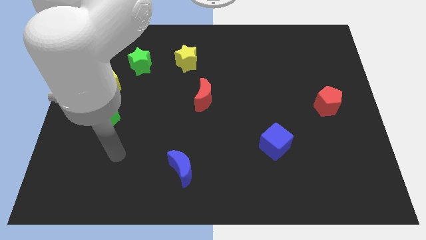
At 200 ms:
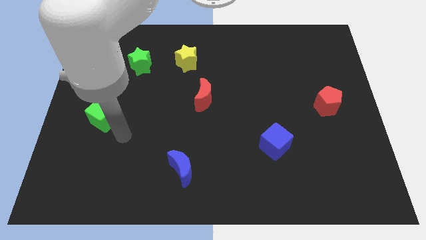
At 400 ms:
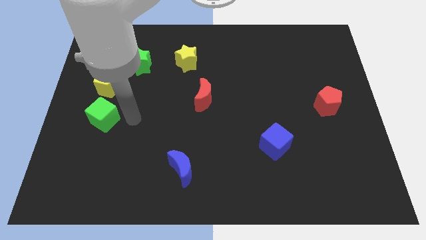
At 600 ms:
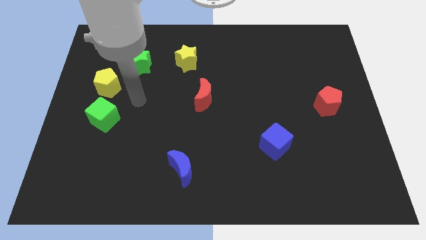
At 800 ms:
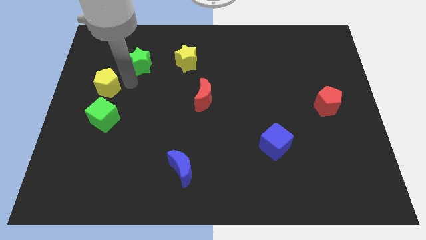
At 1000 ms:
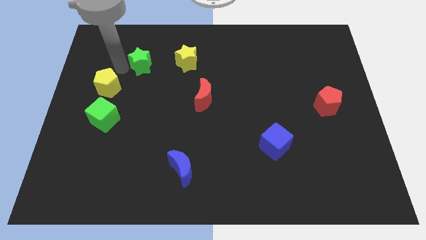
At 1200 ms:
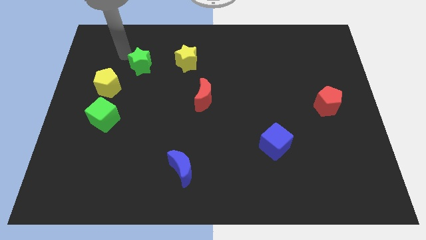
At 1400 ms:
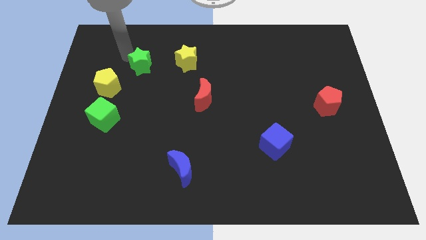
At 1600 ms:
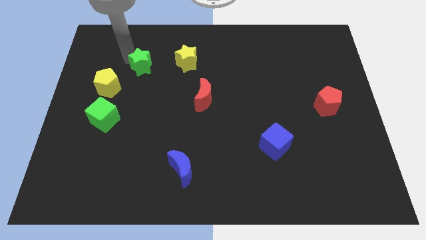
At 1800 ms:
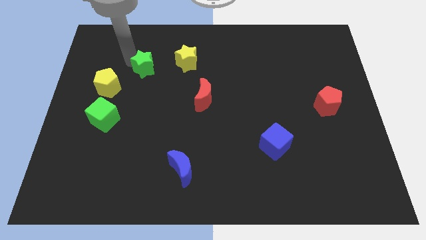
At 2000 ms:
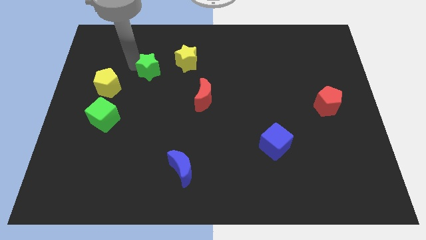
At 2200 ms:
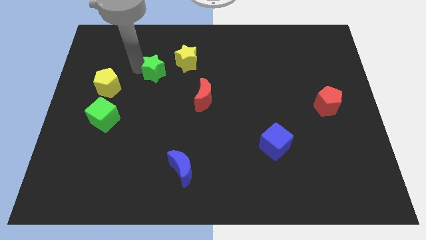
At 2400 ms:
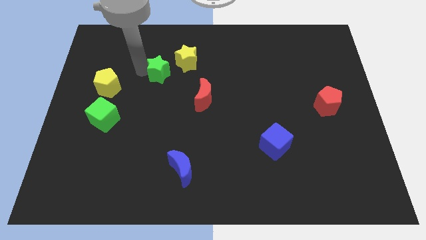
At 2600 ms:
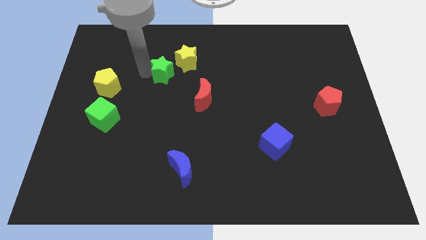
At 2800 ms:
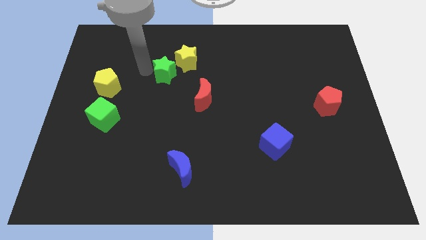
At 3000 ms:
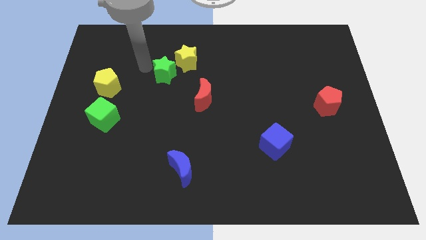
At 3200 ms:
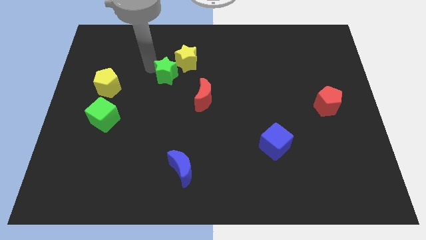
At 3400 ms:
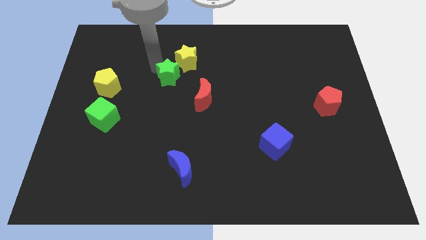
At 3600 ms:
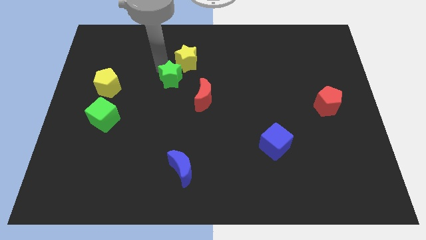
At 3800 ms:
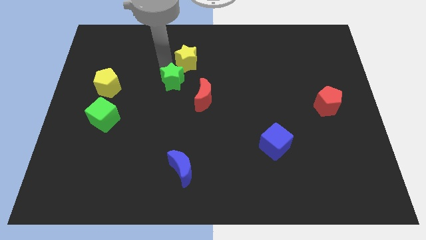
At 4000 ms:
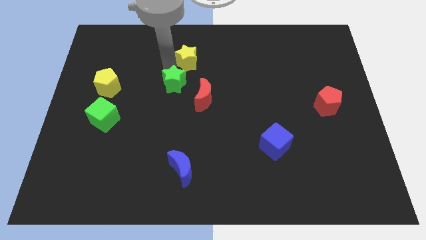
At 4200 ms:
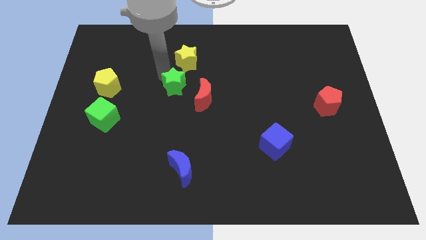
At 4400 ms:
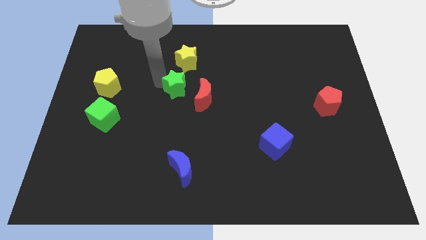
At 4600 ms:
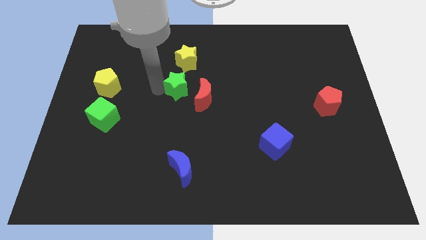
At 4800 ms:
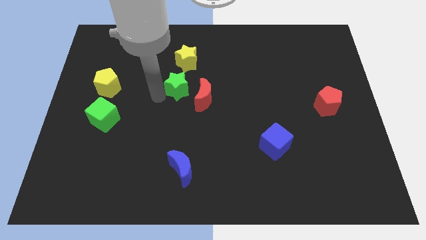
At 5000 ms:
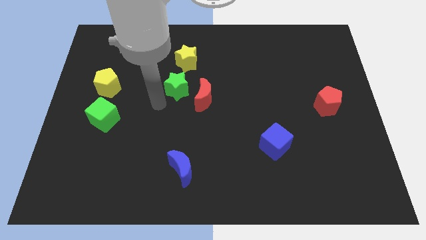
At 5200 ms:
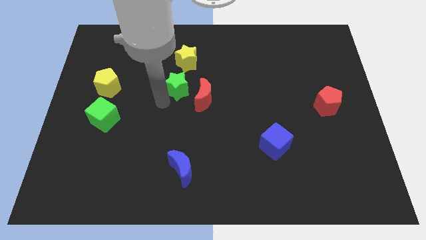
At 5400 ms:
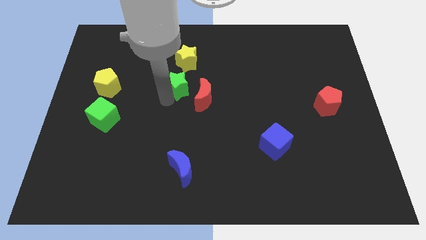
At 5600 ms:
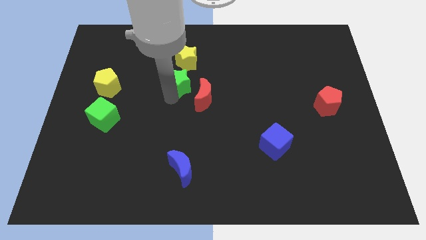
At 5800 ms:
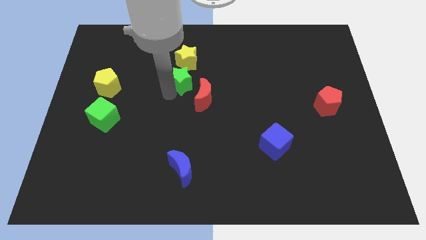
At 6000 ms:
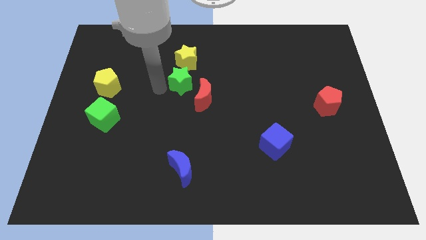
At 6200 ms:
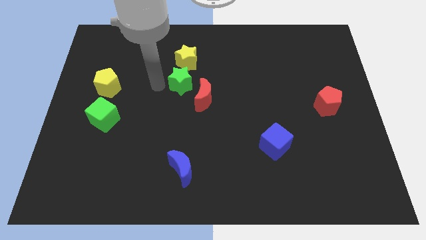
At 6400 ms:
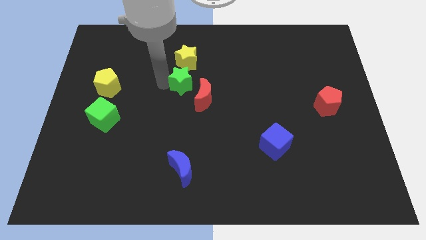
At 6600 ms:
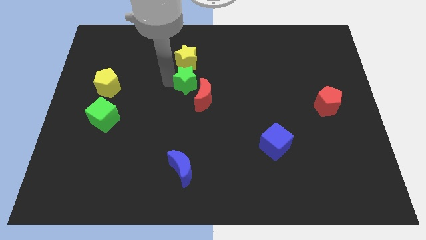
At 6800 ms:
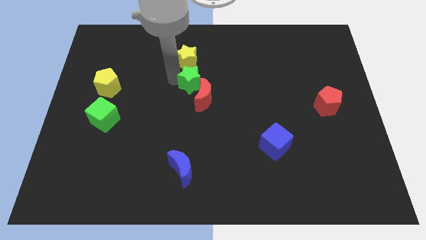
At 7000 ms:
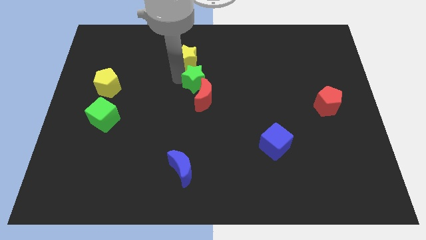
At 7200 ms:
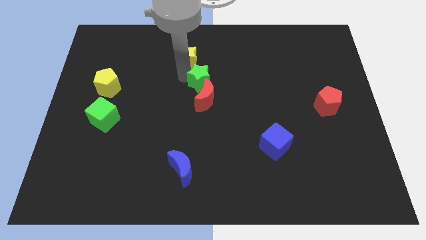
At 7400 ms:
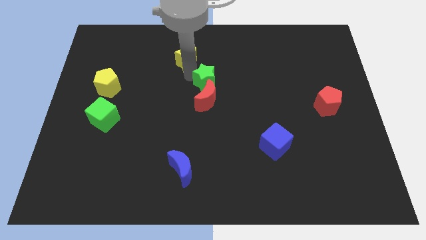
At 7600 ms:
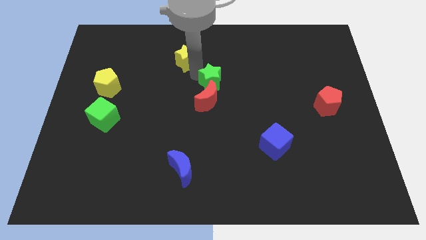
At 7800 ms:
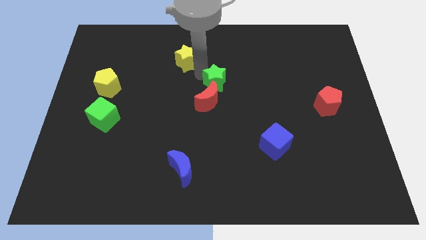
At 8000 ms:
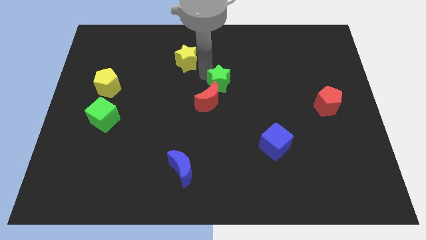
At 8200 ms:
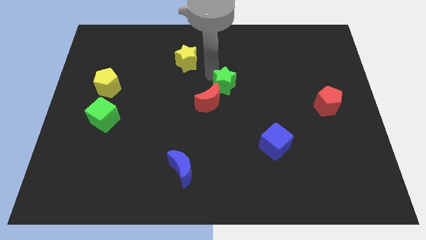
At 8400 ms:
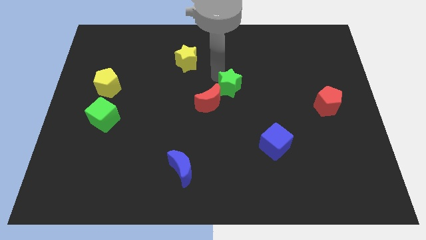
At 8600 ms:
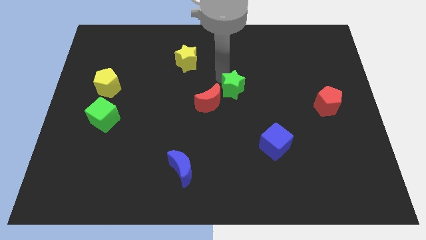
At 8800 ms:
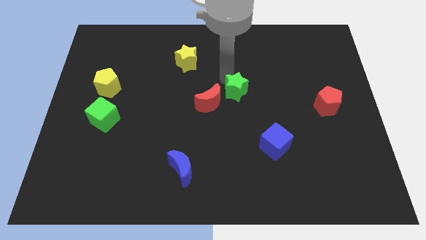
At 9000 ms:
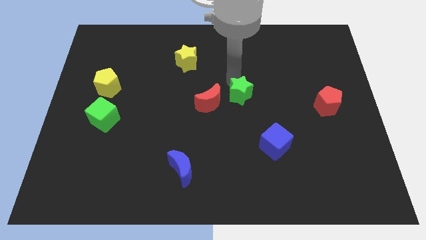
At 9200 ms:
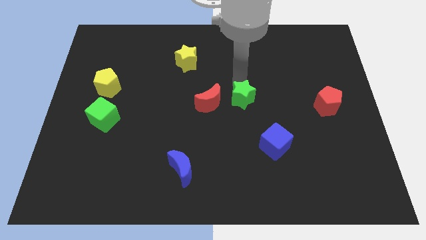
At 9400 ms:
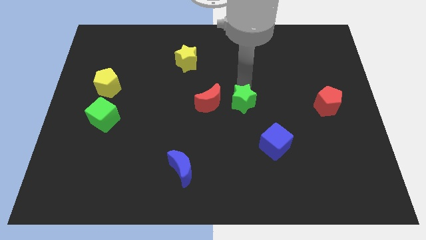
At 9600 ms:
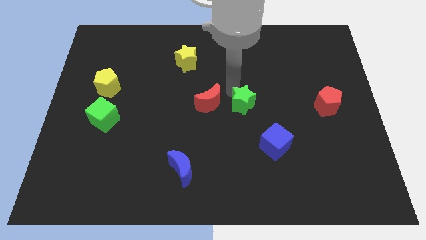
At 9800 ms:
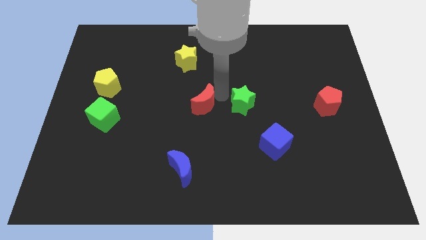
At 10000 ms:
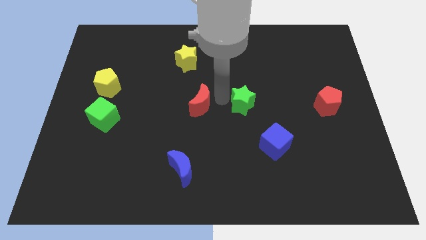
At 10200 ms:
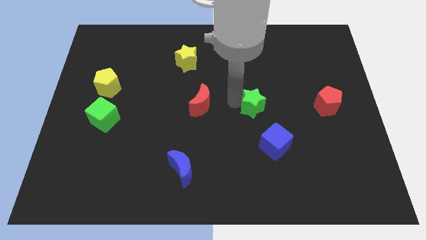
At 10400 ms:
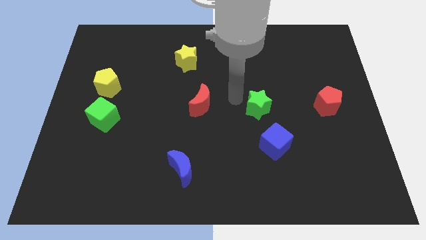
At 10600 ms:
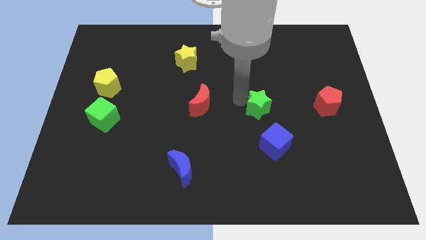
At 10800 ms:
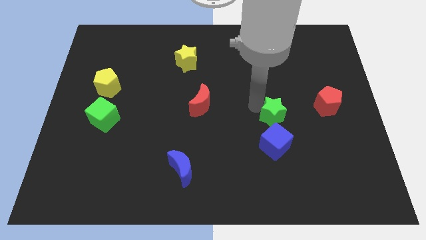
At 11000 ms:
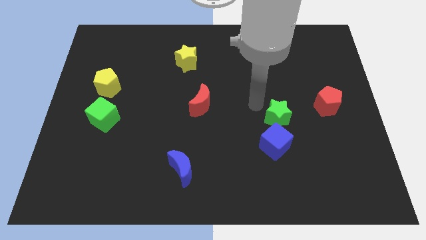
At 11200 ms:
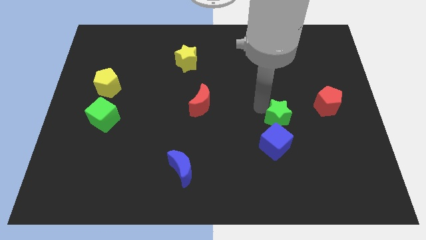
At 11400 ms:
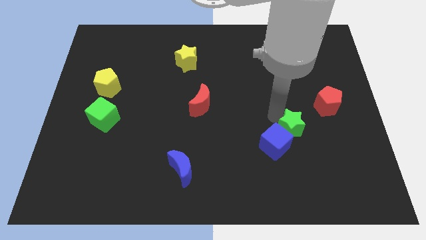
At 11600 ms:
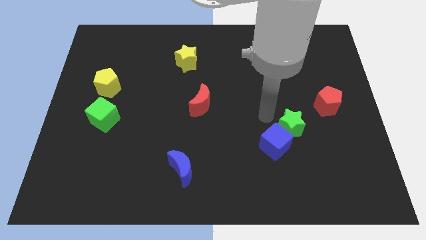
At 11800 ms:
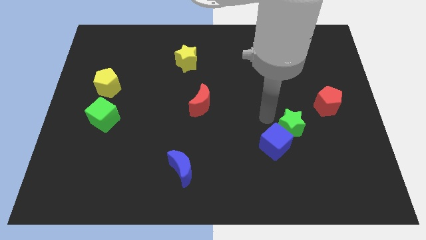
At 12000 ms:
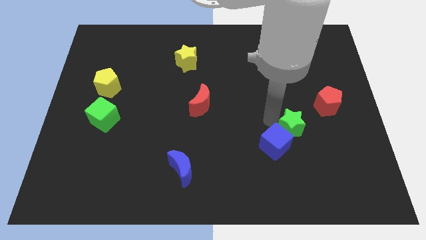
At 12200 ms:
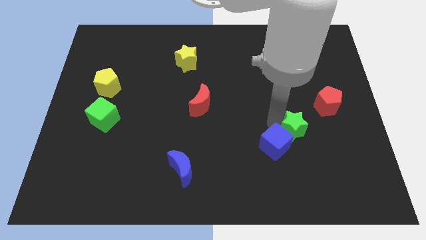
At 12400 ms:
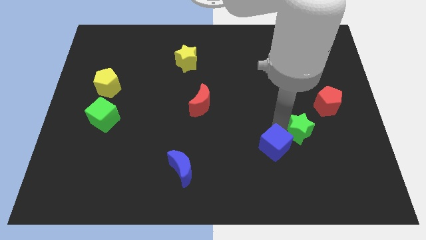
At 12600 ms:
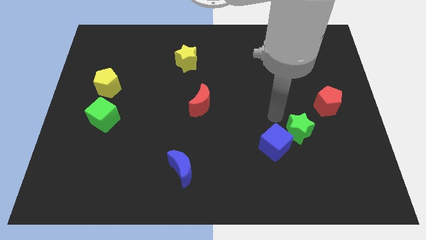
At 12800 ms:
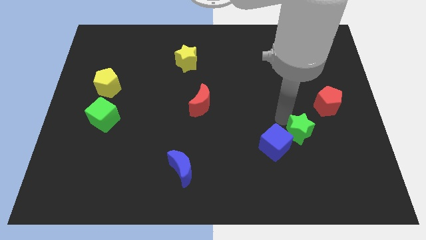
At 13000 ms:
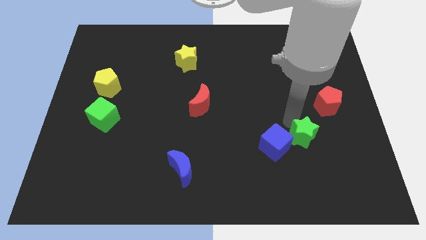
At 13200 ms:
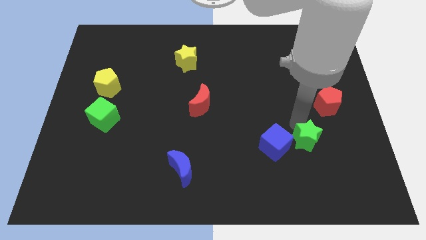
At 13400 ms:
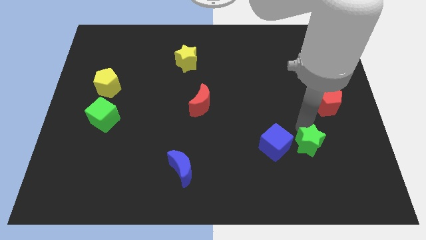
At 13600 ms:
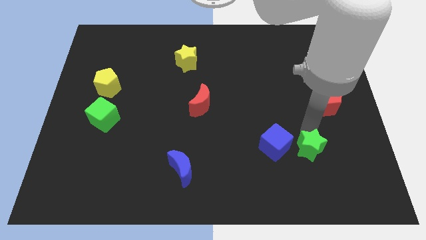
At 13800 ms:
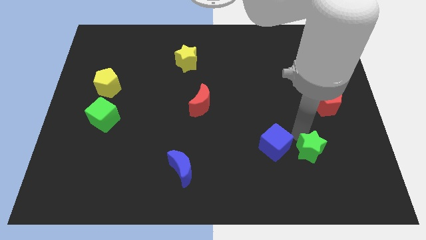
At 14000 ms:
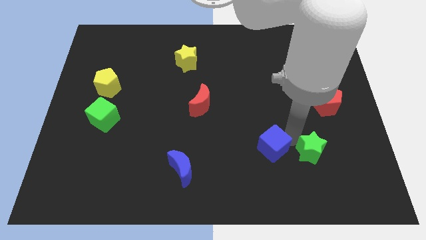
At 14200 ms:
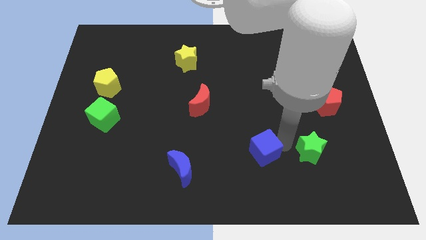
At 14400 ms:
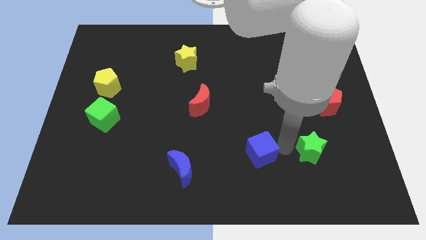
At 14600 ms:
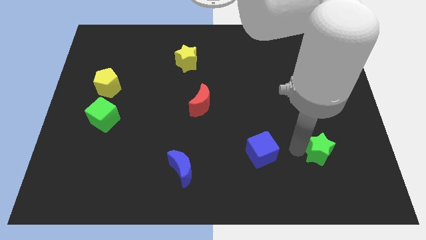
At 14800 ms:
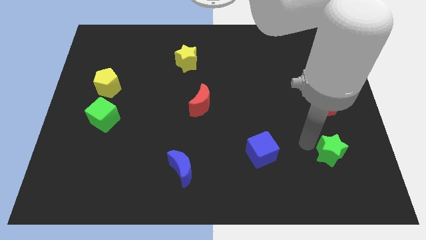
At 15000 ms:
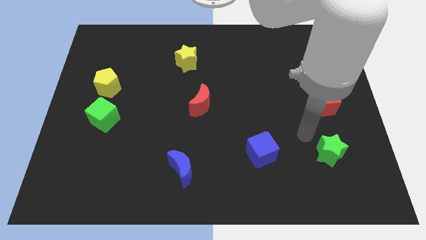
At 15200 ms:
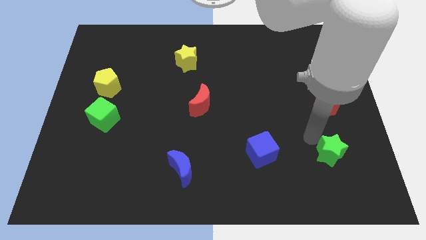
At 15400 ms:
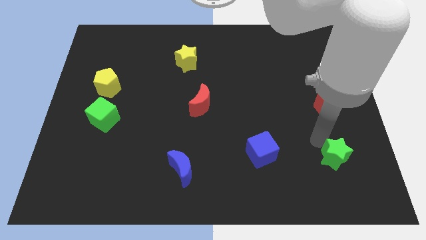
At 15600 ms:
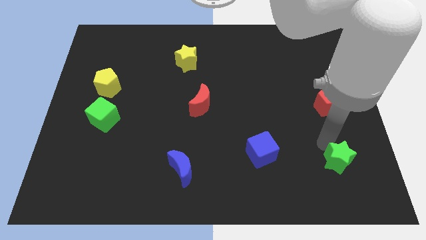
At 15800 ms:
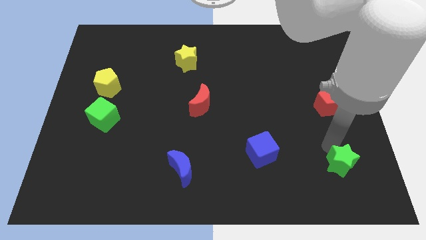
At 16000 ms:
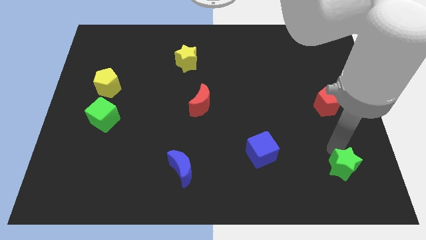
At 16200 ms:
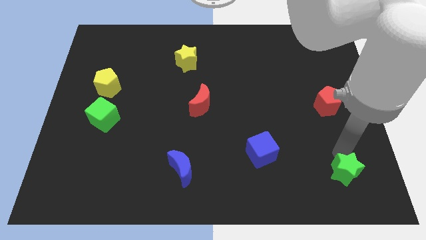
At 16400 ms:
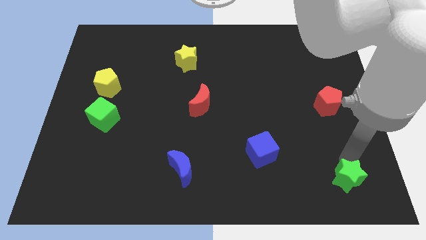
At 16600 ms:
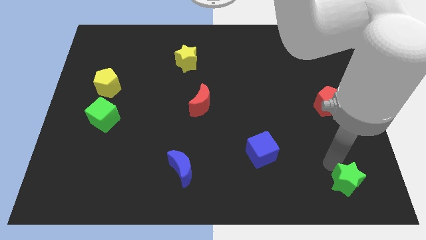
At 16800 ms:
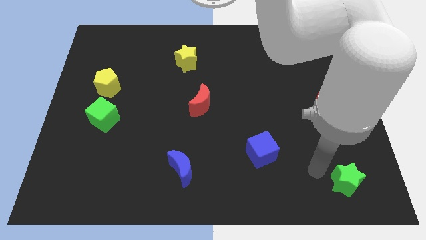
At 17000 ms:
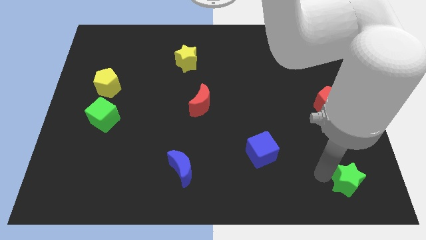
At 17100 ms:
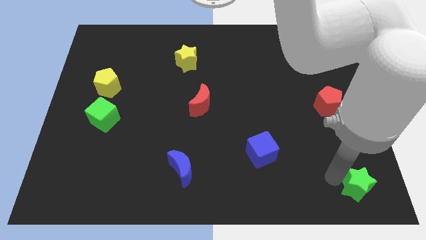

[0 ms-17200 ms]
push the green star to the lower right corner
